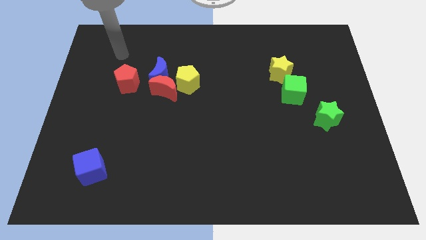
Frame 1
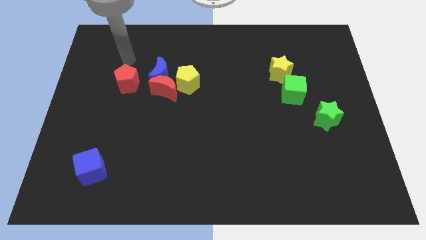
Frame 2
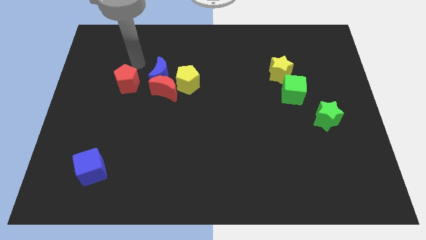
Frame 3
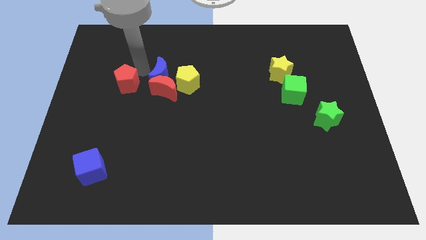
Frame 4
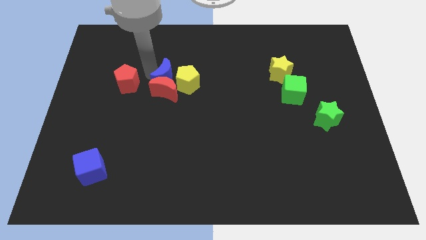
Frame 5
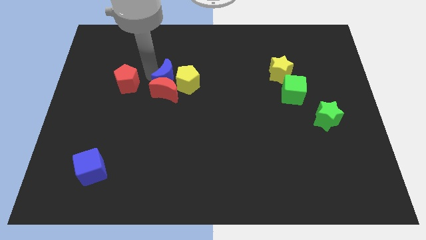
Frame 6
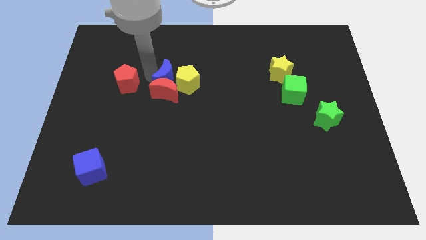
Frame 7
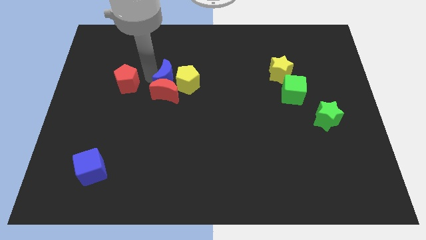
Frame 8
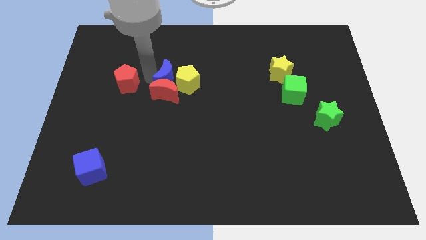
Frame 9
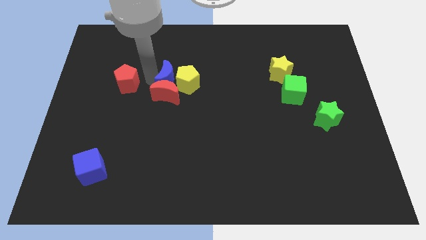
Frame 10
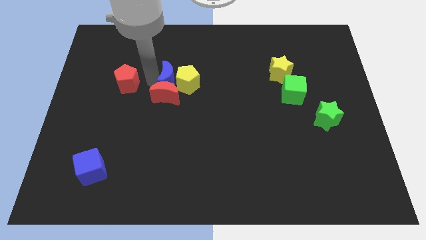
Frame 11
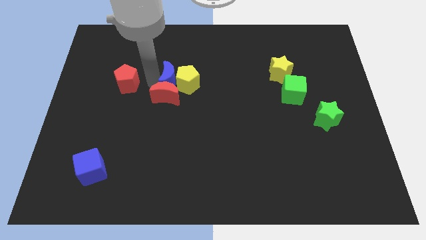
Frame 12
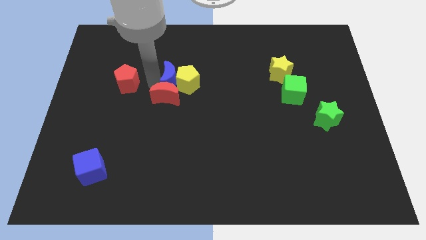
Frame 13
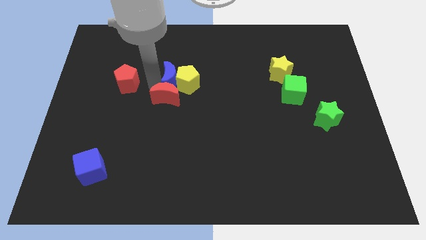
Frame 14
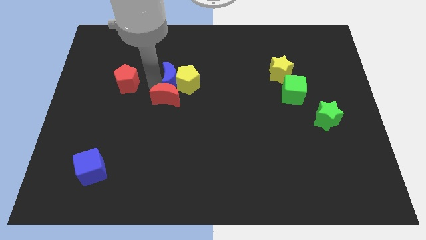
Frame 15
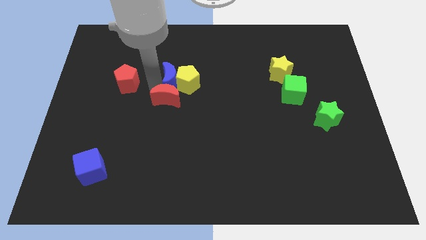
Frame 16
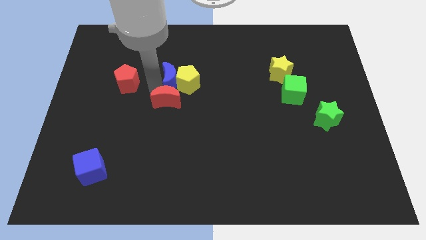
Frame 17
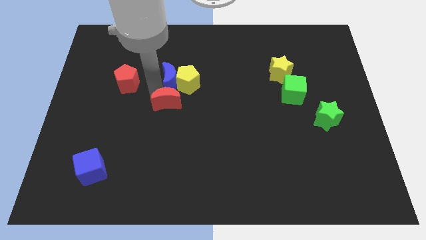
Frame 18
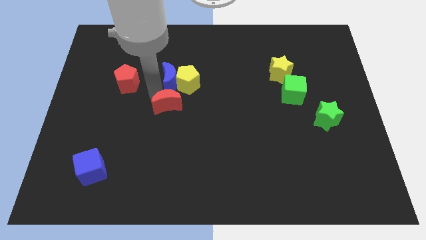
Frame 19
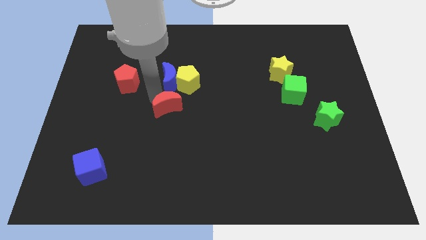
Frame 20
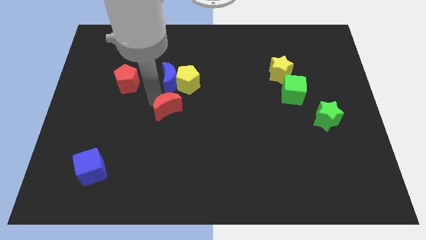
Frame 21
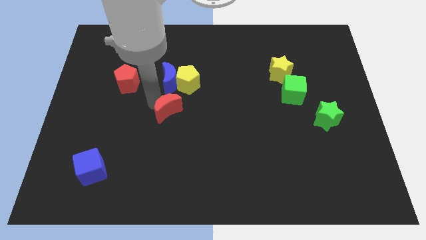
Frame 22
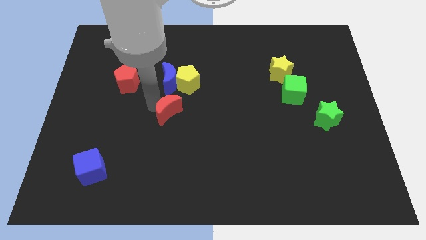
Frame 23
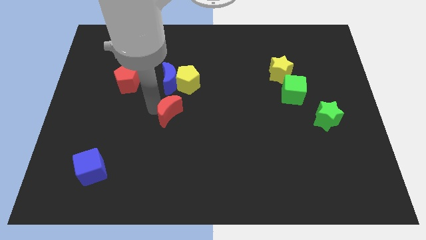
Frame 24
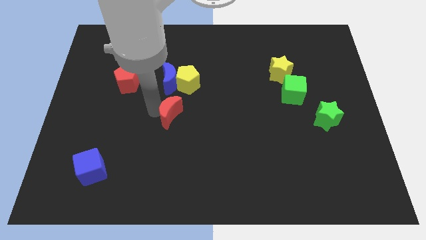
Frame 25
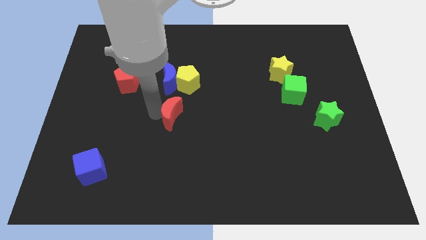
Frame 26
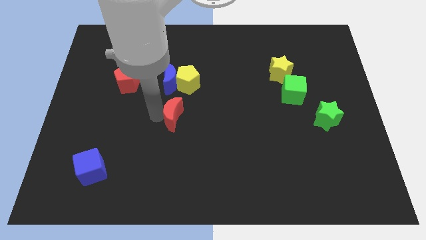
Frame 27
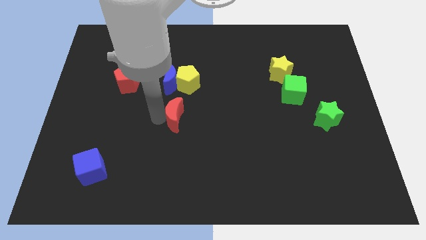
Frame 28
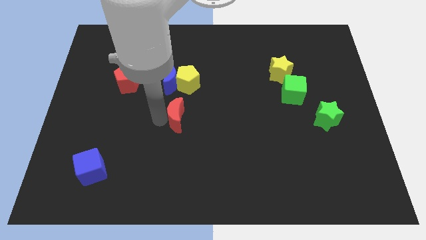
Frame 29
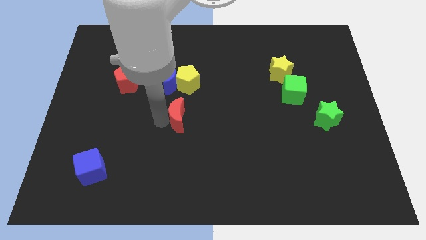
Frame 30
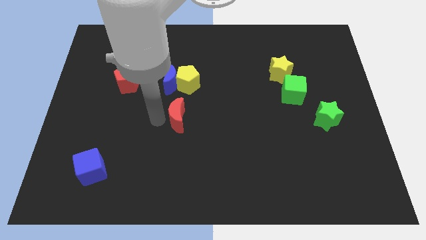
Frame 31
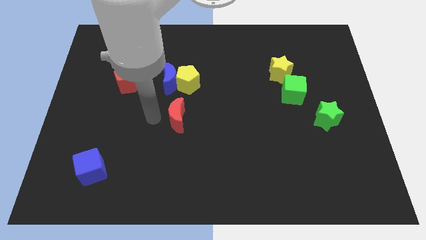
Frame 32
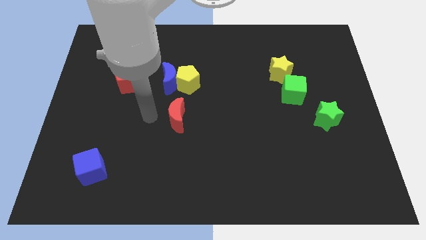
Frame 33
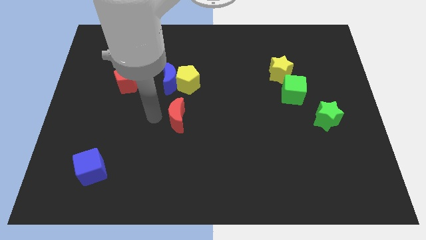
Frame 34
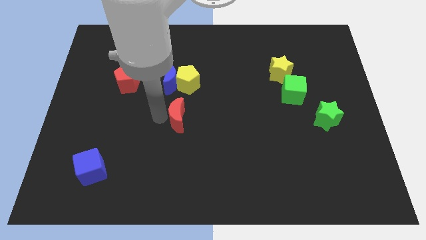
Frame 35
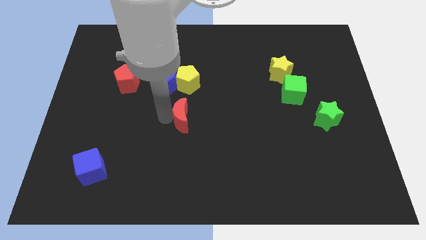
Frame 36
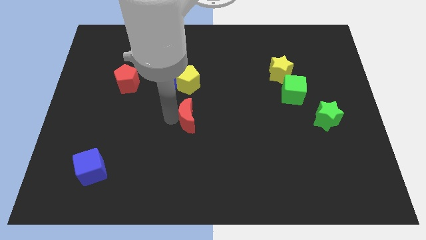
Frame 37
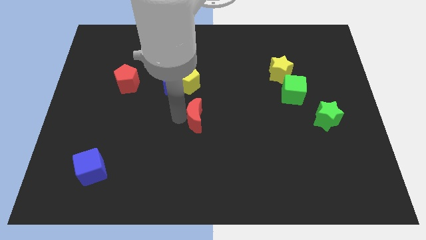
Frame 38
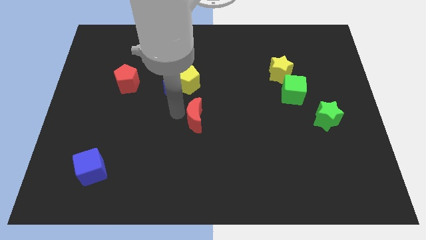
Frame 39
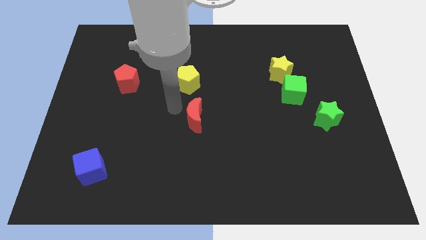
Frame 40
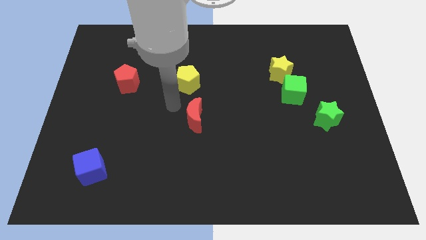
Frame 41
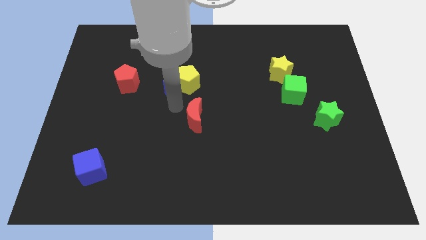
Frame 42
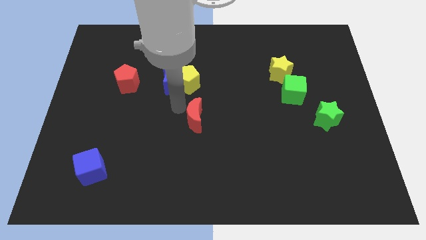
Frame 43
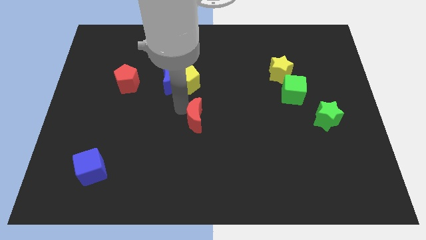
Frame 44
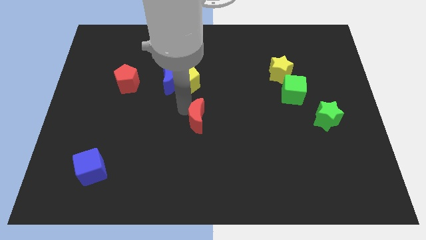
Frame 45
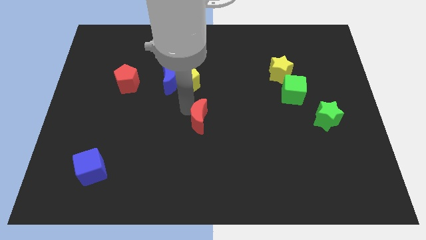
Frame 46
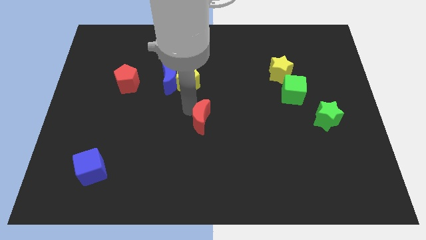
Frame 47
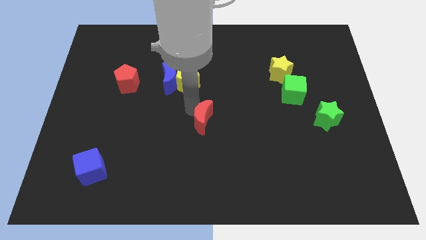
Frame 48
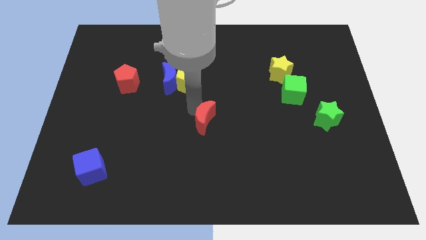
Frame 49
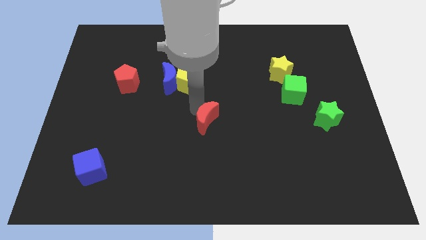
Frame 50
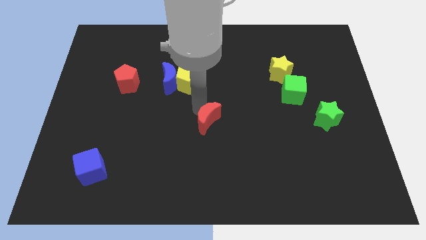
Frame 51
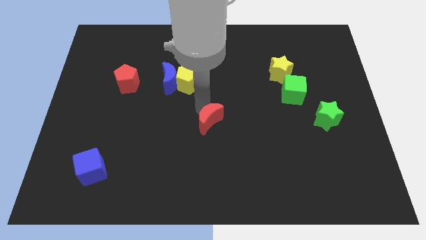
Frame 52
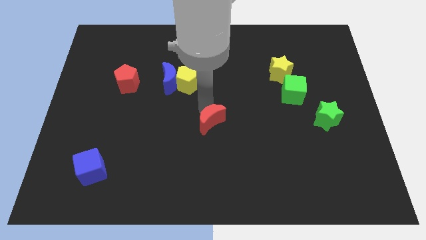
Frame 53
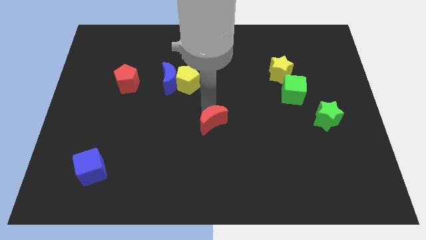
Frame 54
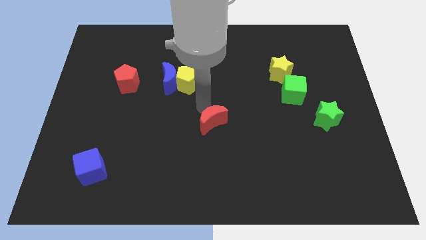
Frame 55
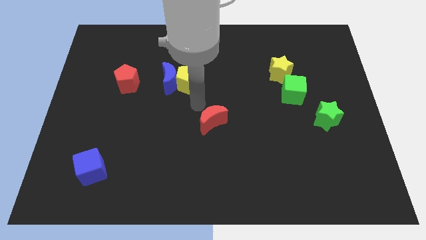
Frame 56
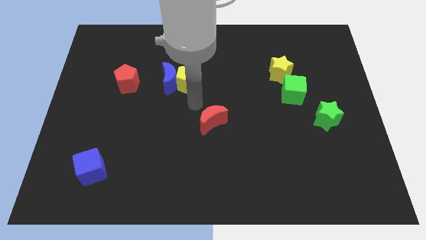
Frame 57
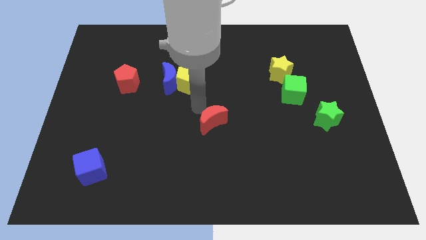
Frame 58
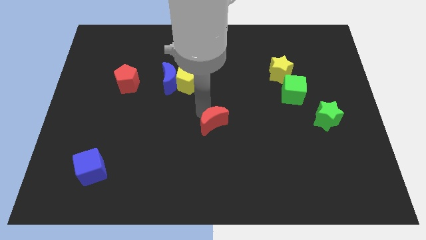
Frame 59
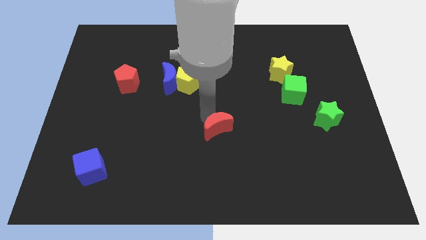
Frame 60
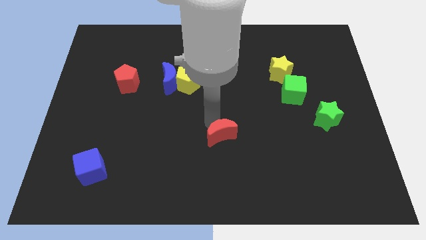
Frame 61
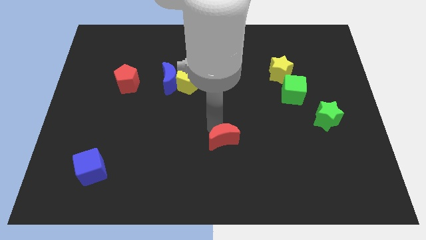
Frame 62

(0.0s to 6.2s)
push the red moon diagonally down and right

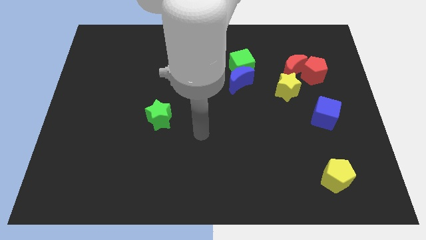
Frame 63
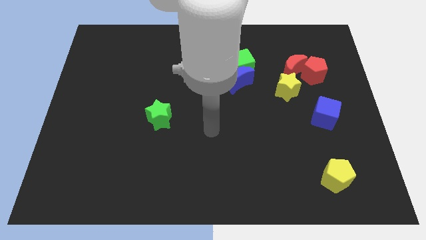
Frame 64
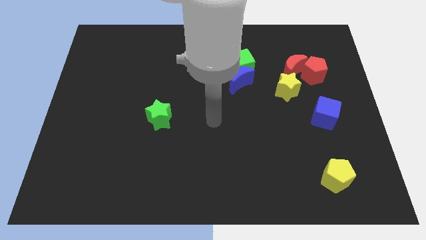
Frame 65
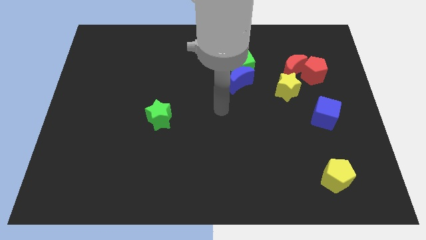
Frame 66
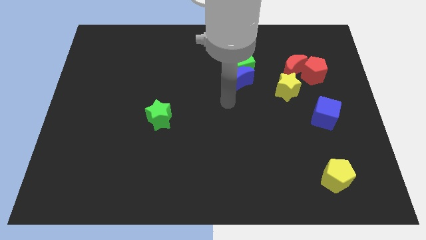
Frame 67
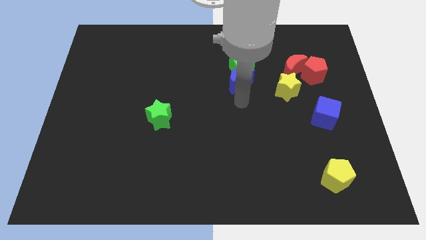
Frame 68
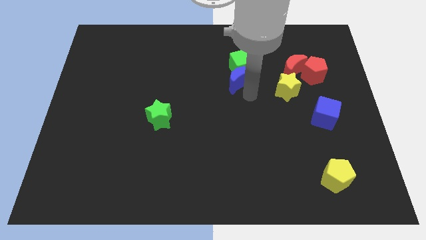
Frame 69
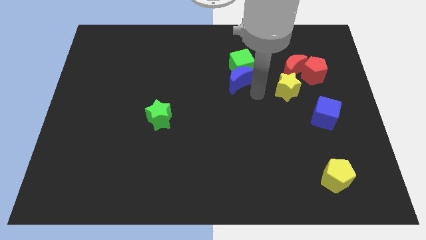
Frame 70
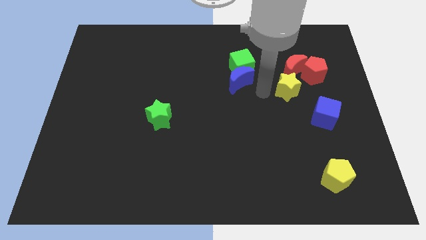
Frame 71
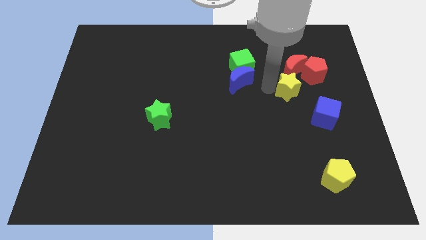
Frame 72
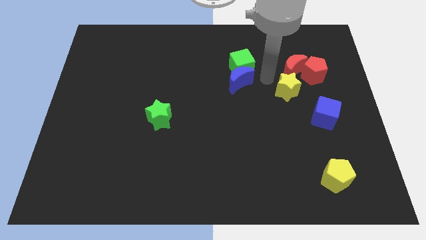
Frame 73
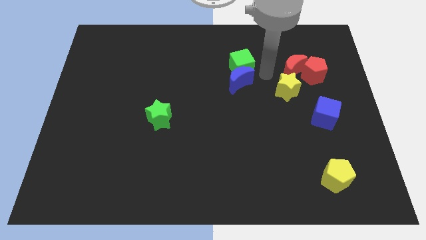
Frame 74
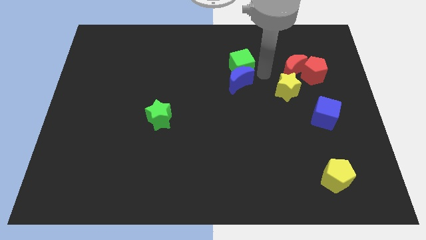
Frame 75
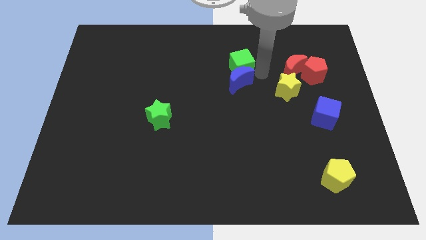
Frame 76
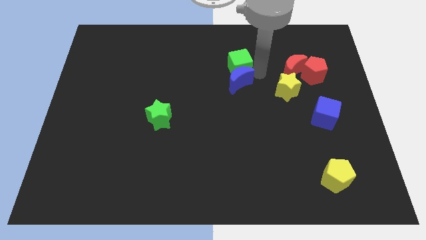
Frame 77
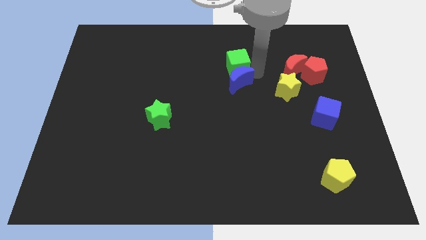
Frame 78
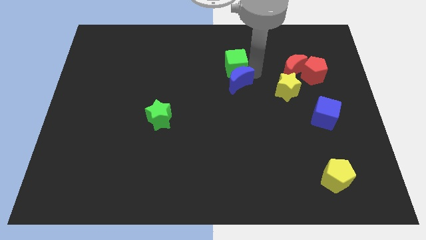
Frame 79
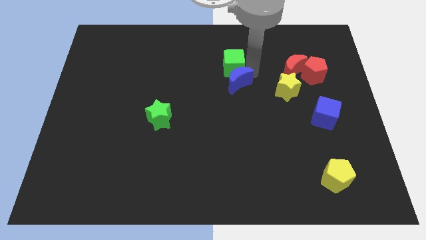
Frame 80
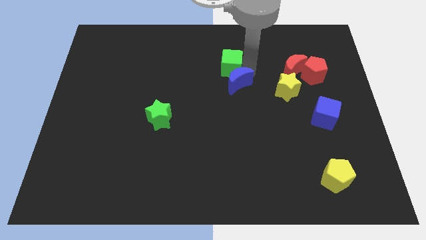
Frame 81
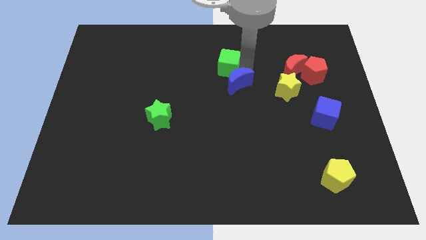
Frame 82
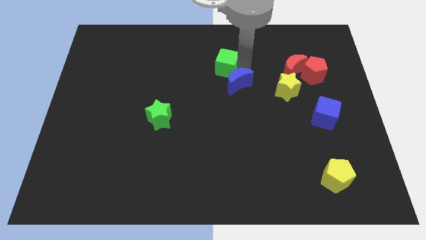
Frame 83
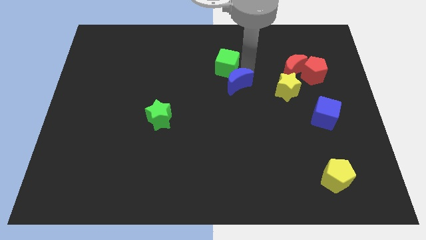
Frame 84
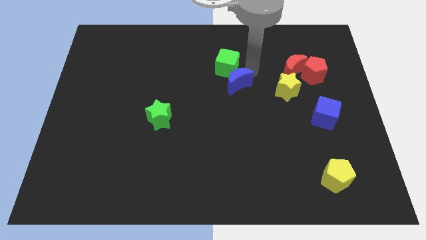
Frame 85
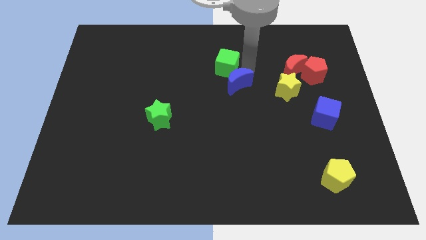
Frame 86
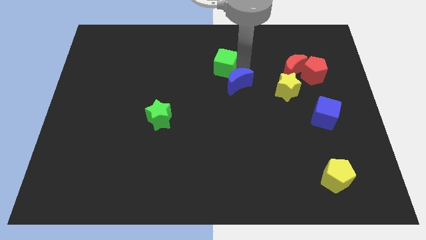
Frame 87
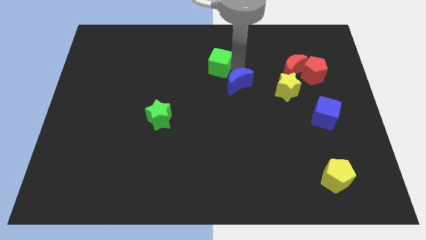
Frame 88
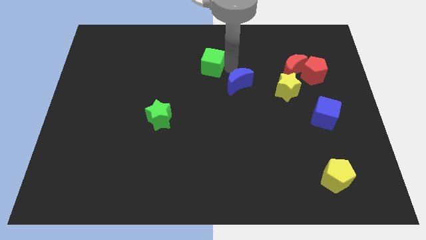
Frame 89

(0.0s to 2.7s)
slide the green cube a little bit left
